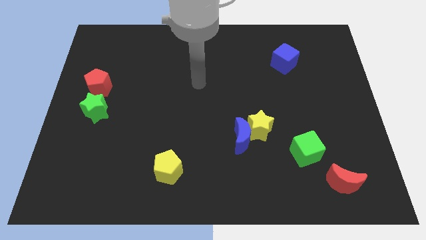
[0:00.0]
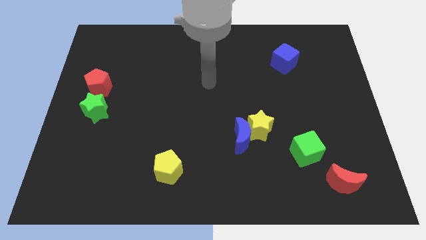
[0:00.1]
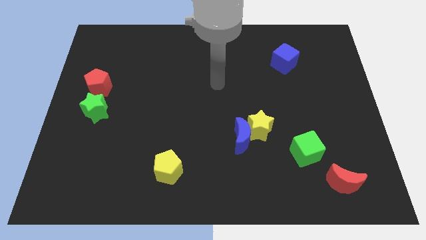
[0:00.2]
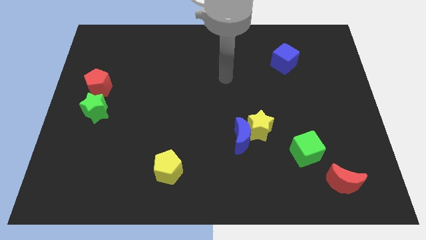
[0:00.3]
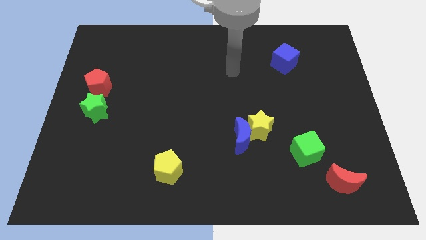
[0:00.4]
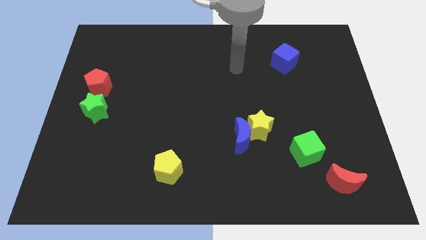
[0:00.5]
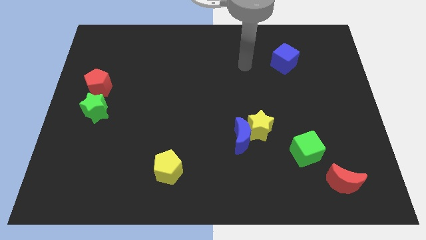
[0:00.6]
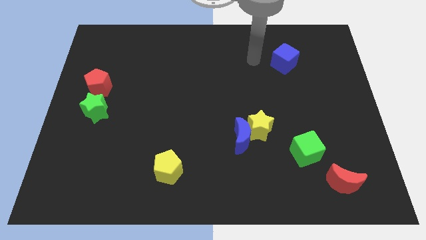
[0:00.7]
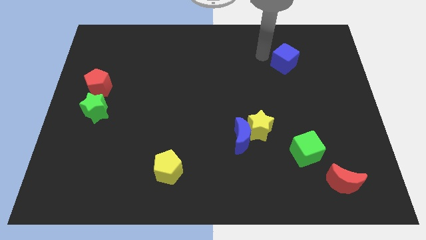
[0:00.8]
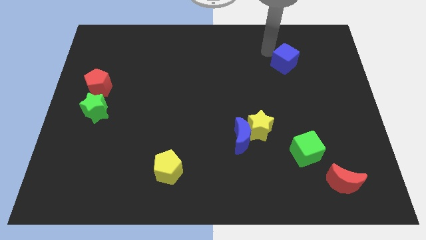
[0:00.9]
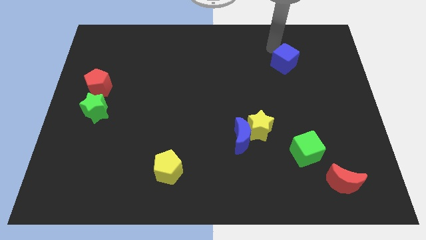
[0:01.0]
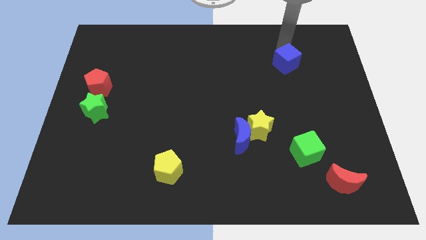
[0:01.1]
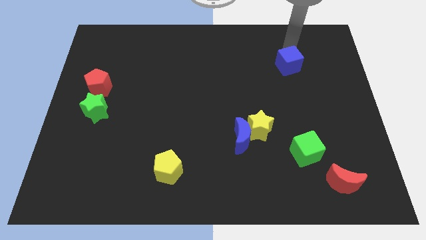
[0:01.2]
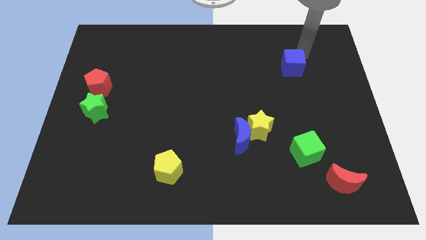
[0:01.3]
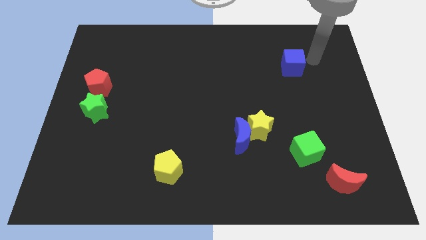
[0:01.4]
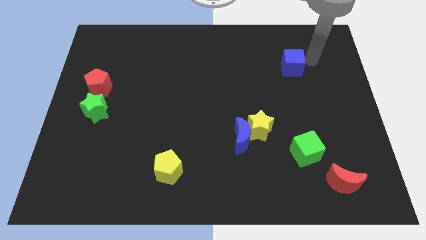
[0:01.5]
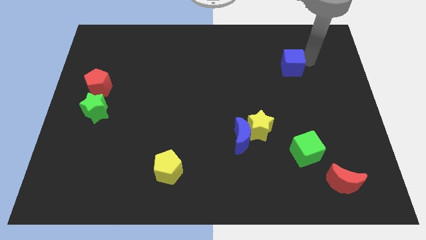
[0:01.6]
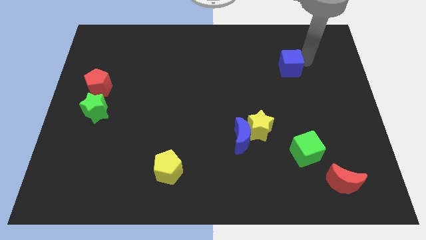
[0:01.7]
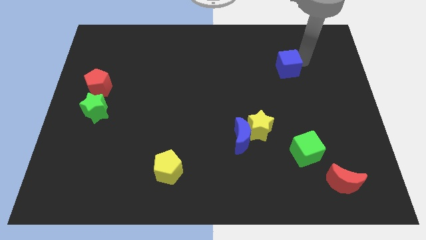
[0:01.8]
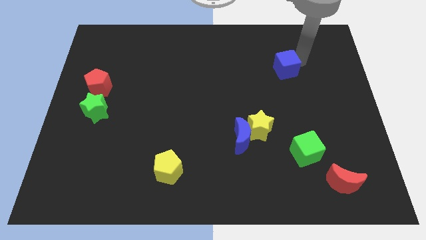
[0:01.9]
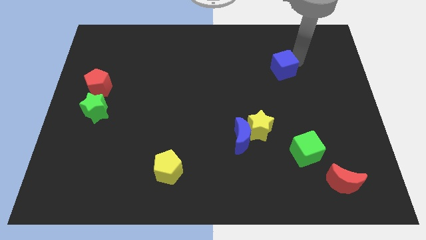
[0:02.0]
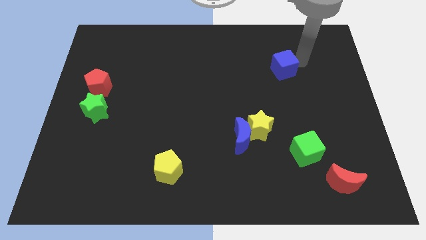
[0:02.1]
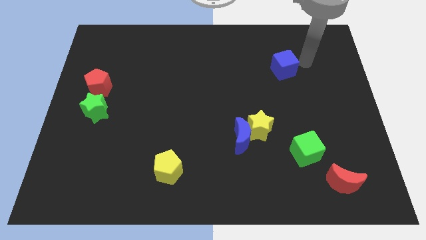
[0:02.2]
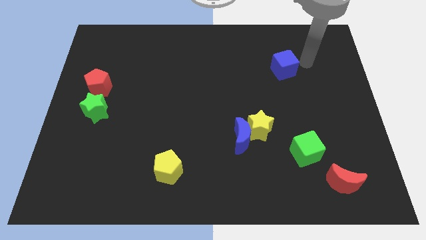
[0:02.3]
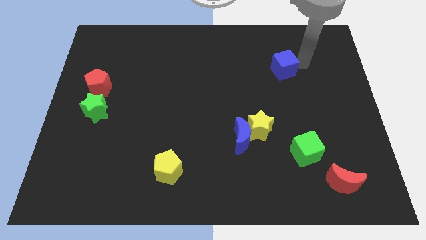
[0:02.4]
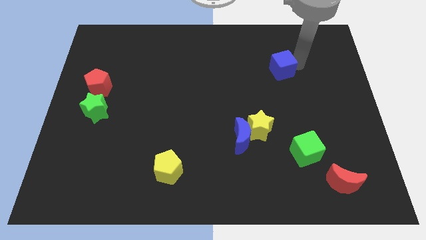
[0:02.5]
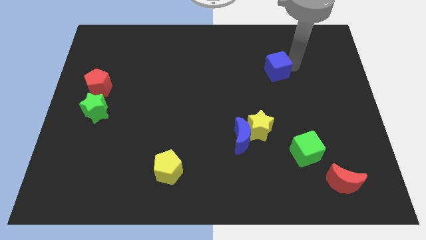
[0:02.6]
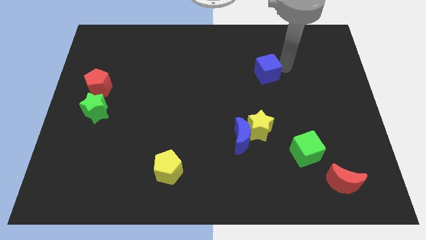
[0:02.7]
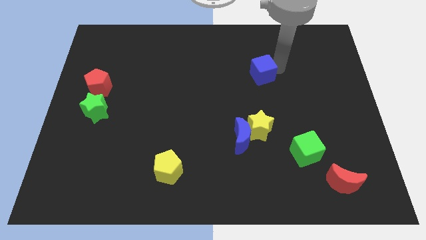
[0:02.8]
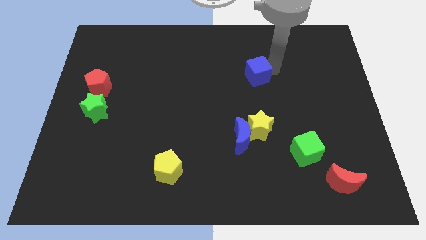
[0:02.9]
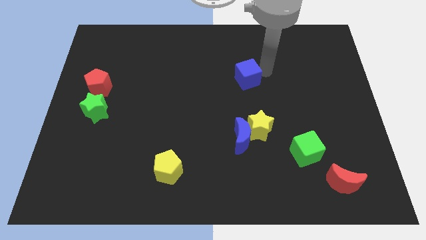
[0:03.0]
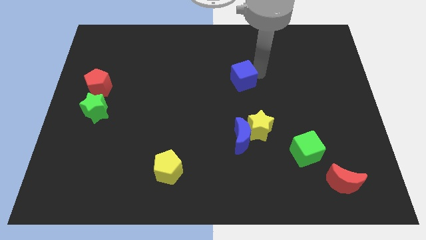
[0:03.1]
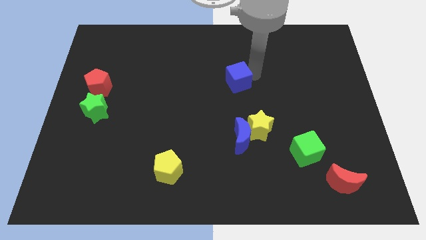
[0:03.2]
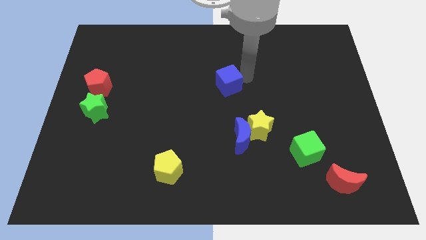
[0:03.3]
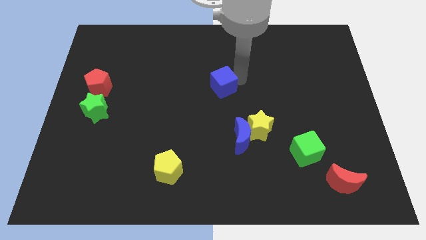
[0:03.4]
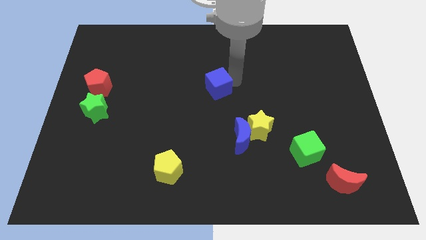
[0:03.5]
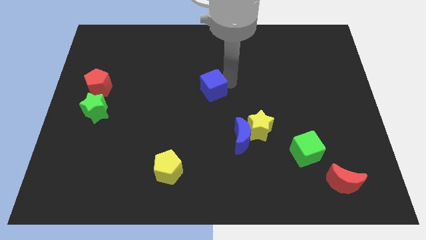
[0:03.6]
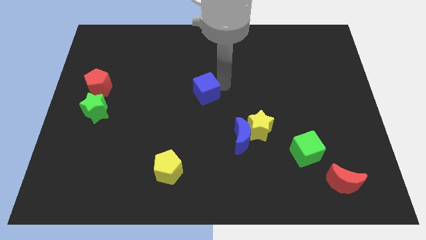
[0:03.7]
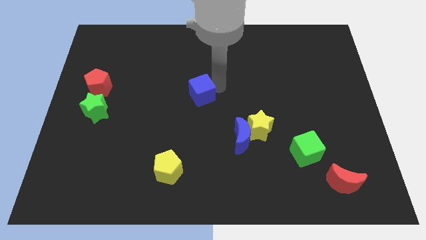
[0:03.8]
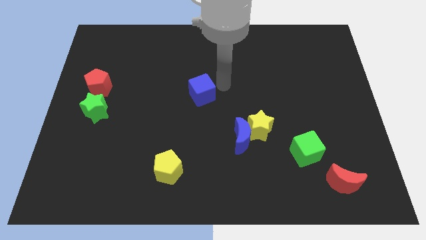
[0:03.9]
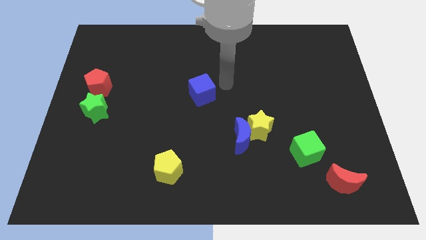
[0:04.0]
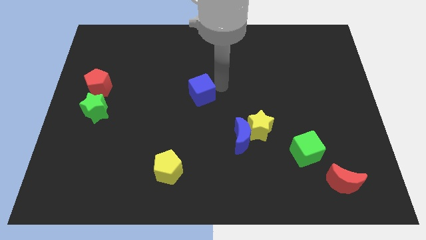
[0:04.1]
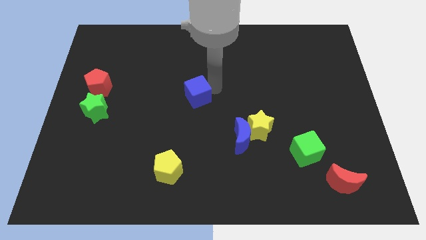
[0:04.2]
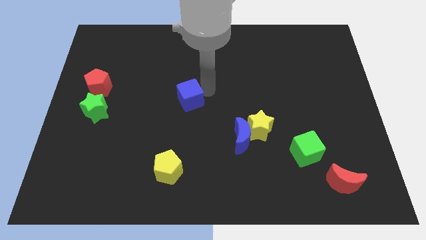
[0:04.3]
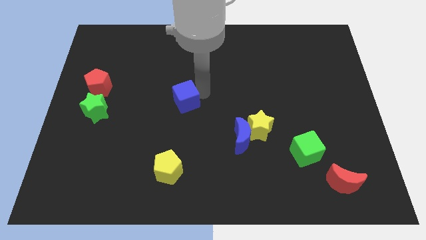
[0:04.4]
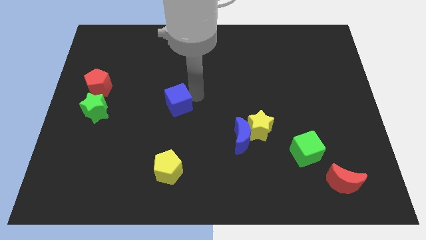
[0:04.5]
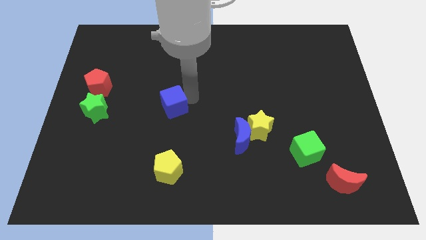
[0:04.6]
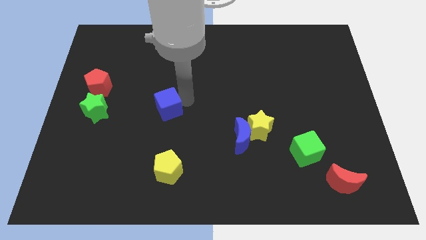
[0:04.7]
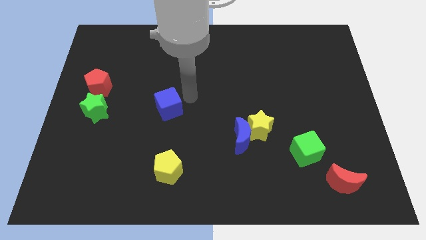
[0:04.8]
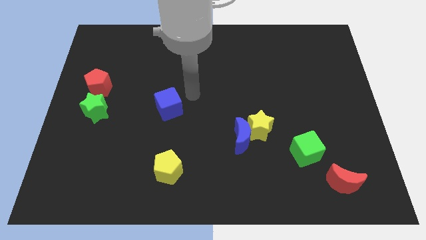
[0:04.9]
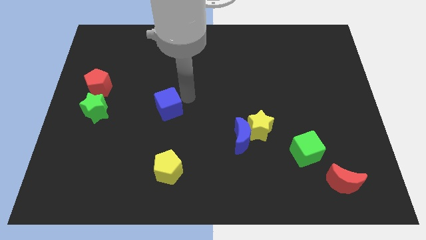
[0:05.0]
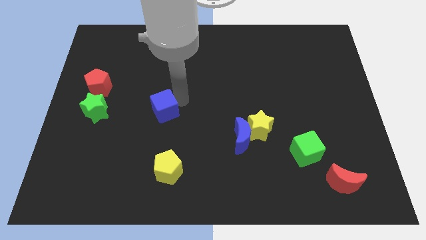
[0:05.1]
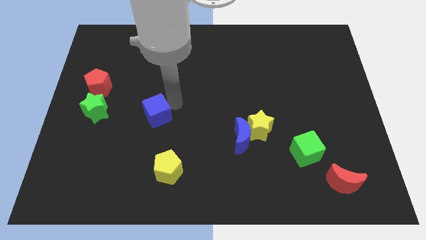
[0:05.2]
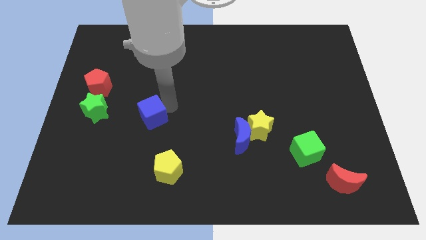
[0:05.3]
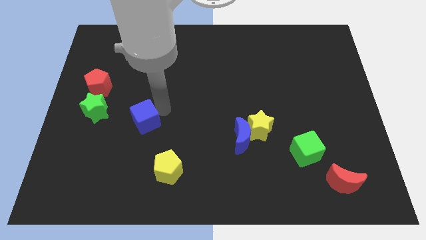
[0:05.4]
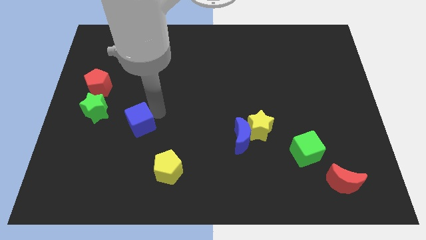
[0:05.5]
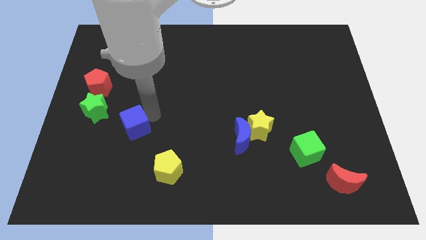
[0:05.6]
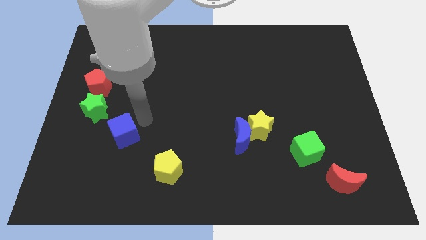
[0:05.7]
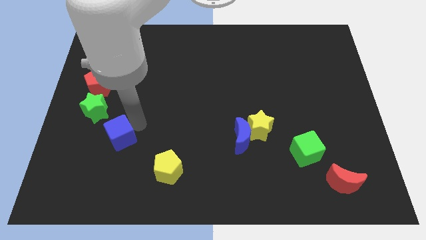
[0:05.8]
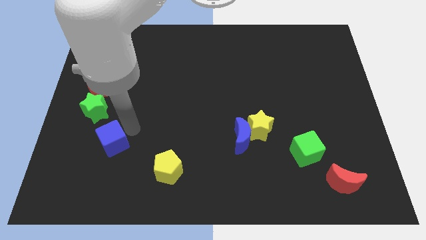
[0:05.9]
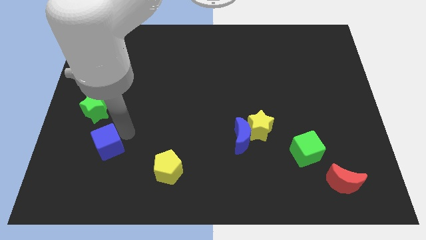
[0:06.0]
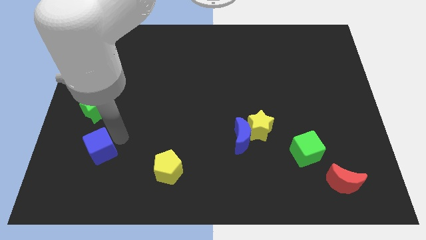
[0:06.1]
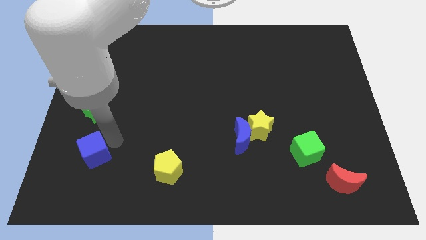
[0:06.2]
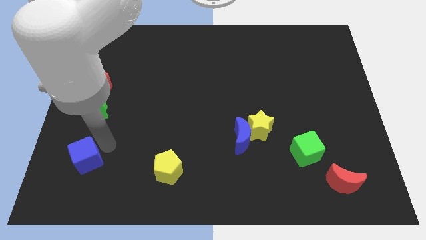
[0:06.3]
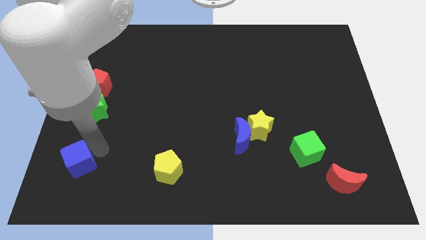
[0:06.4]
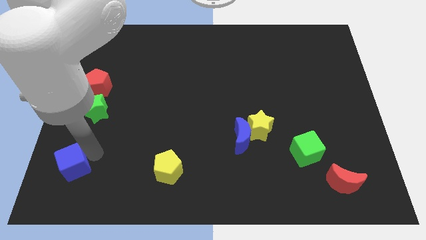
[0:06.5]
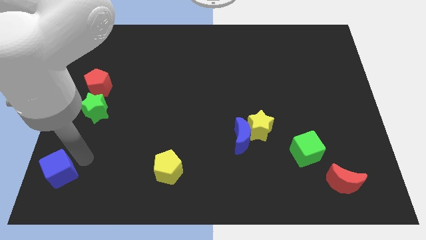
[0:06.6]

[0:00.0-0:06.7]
push the blue cube to the bottom left corner

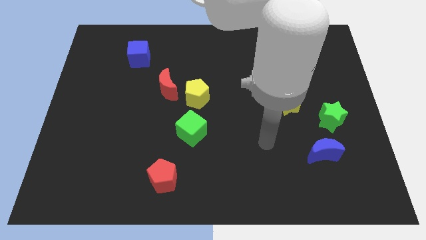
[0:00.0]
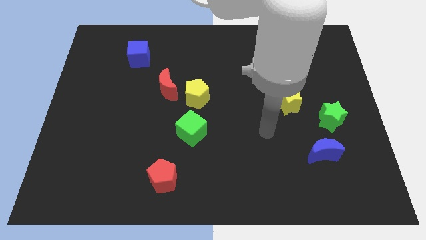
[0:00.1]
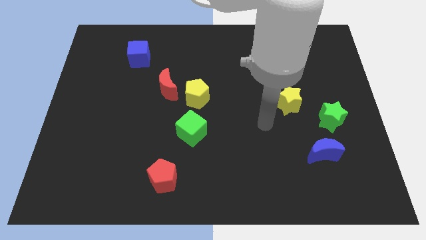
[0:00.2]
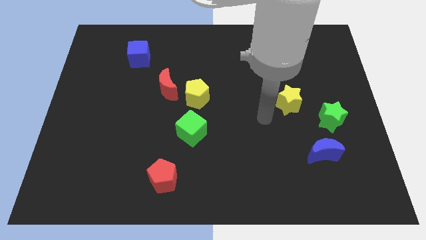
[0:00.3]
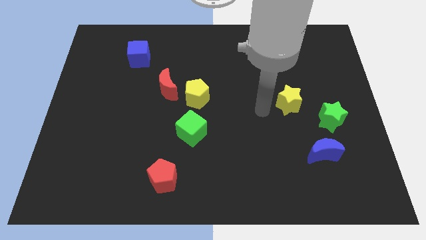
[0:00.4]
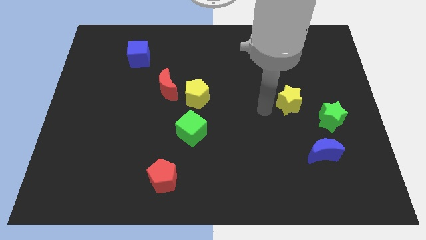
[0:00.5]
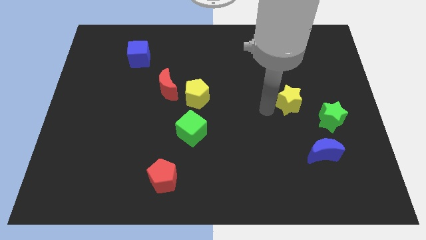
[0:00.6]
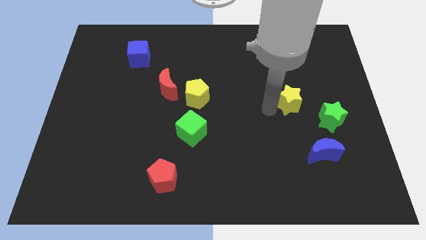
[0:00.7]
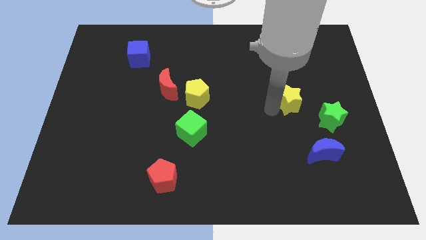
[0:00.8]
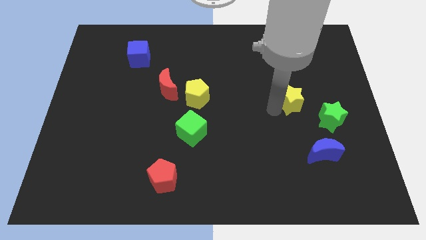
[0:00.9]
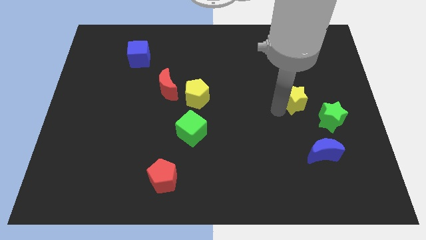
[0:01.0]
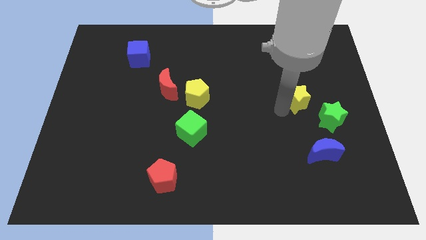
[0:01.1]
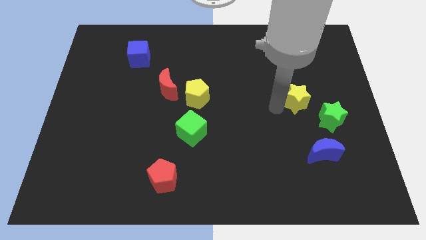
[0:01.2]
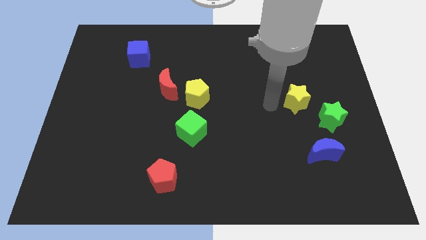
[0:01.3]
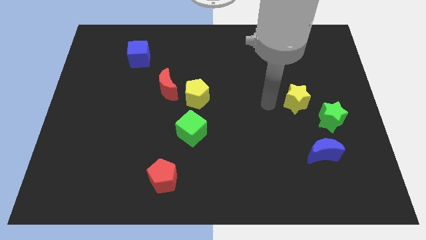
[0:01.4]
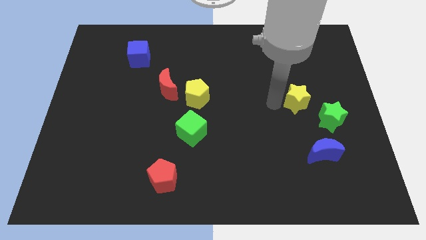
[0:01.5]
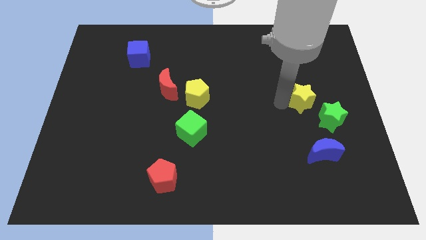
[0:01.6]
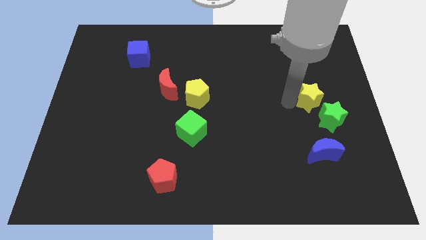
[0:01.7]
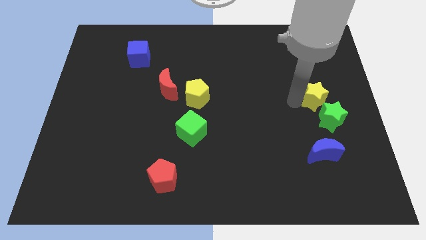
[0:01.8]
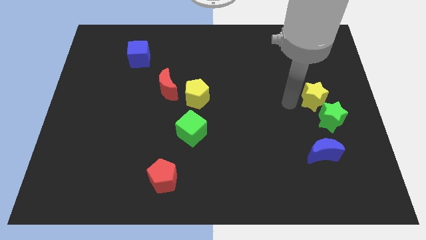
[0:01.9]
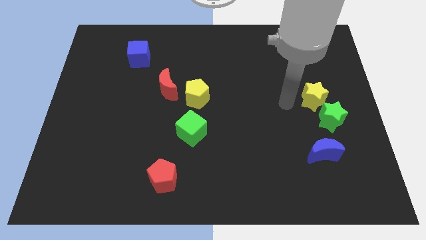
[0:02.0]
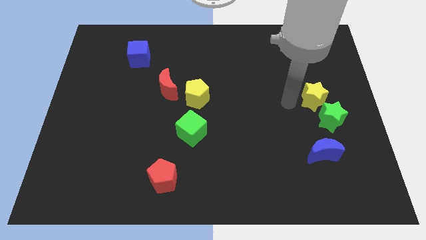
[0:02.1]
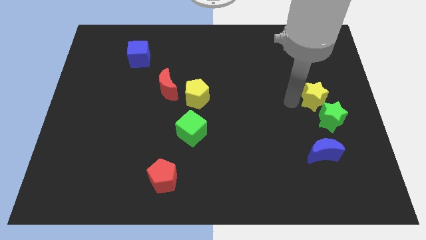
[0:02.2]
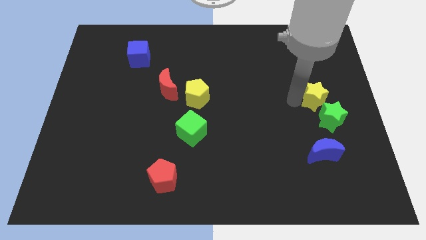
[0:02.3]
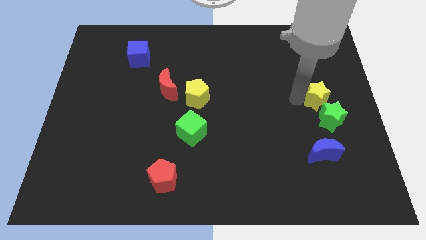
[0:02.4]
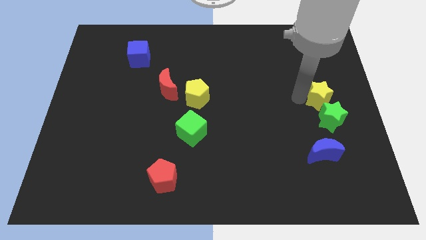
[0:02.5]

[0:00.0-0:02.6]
put the yellow star to the center right
